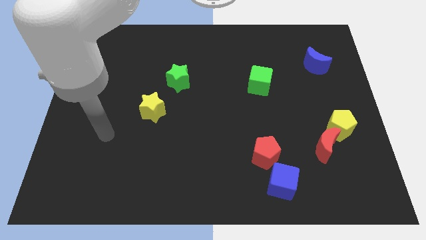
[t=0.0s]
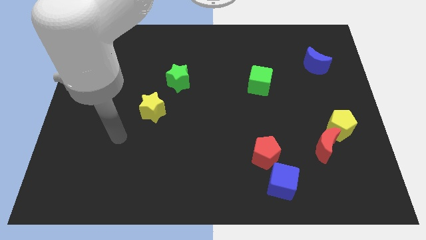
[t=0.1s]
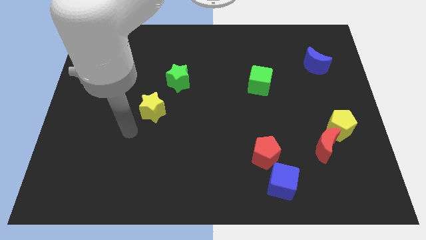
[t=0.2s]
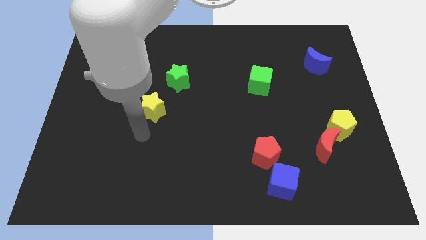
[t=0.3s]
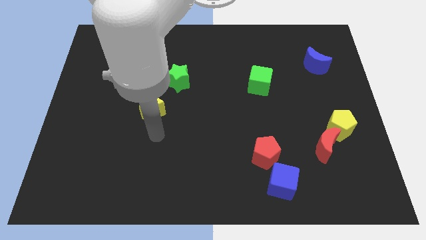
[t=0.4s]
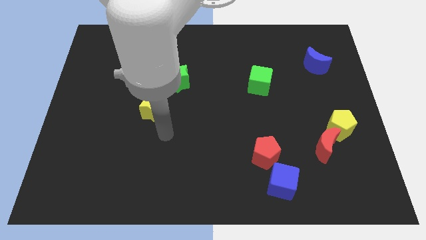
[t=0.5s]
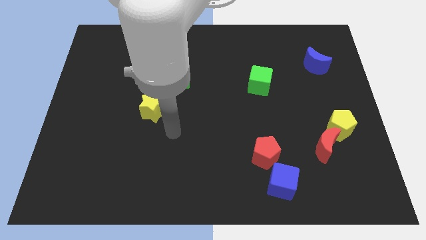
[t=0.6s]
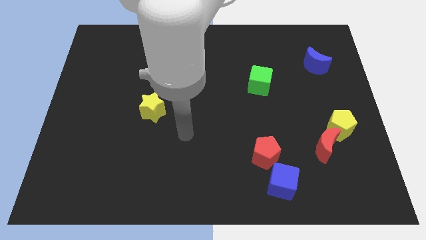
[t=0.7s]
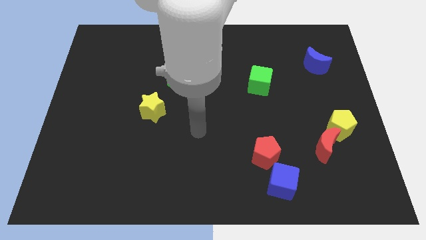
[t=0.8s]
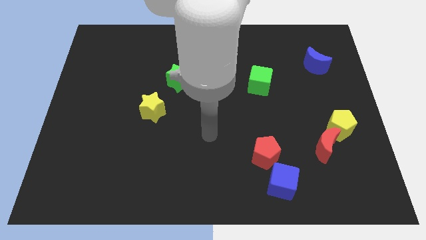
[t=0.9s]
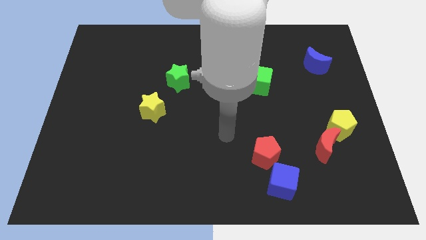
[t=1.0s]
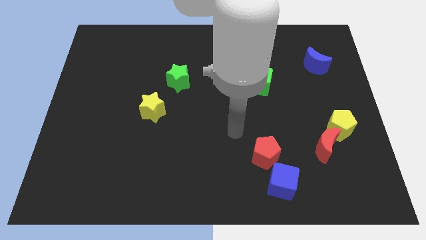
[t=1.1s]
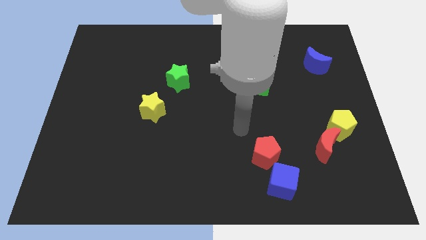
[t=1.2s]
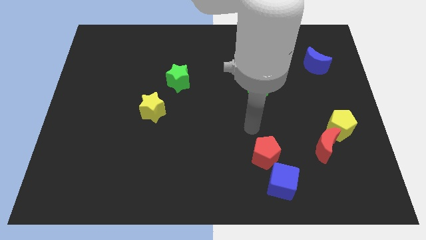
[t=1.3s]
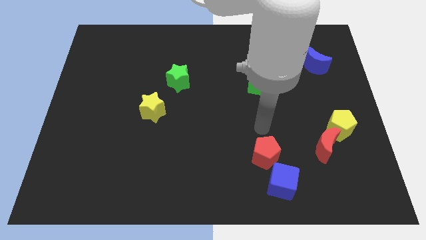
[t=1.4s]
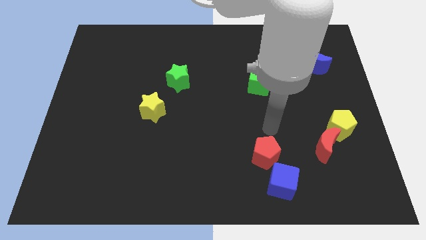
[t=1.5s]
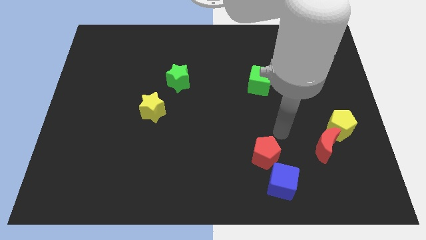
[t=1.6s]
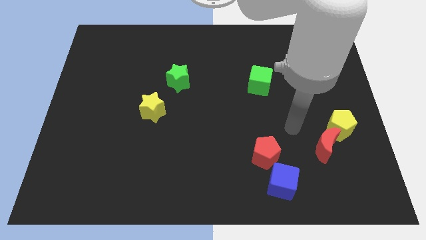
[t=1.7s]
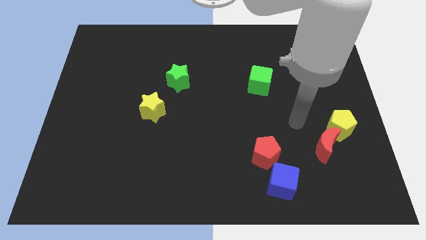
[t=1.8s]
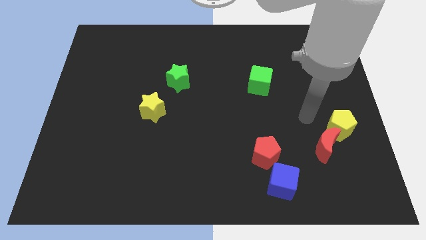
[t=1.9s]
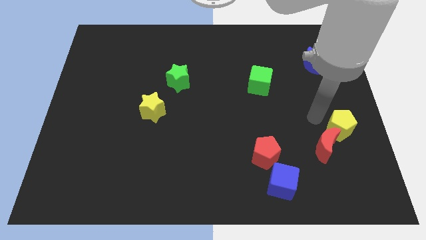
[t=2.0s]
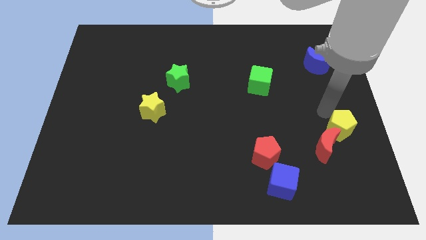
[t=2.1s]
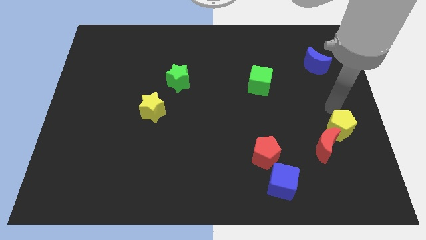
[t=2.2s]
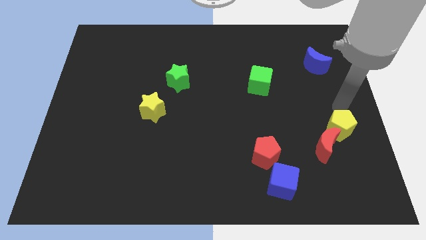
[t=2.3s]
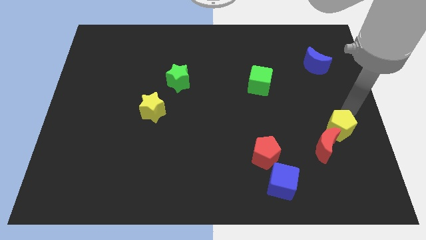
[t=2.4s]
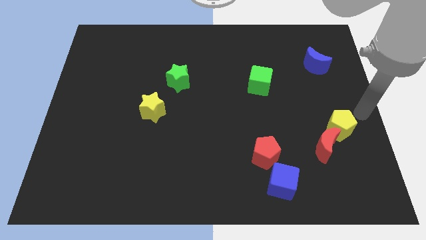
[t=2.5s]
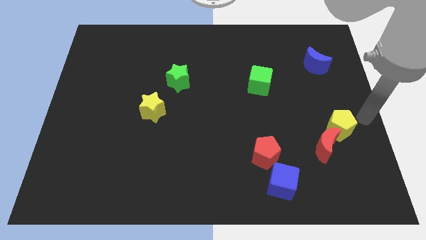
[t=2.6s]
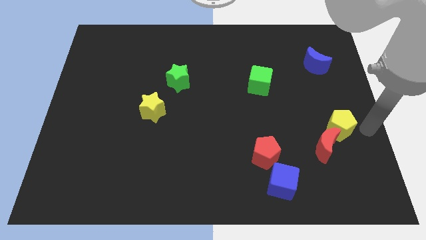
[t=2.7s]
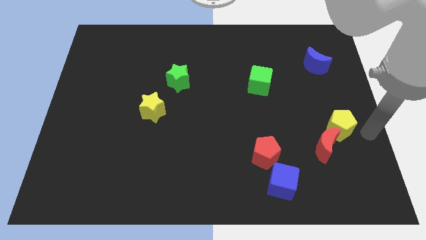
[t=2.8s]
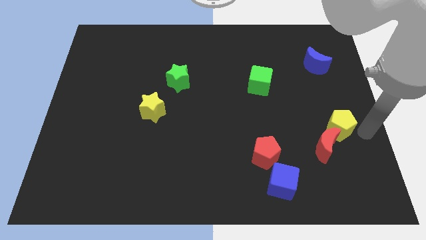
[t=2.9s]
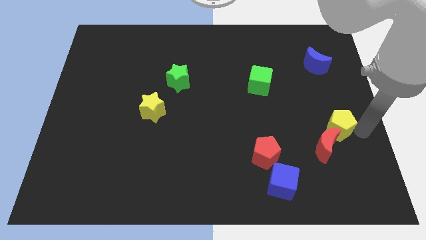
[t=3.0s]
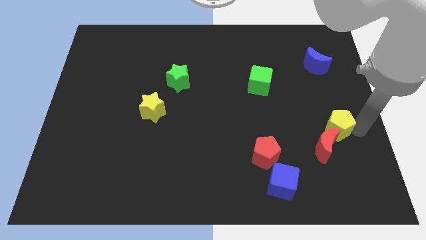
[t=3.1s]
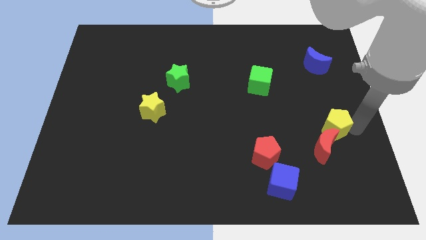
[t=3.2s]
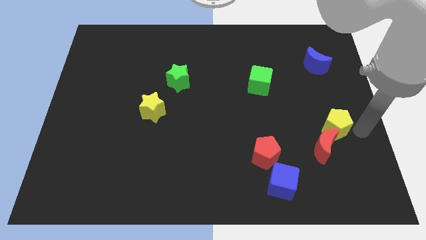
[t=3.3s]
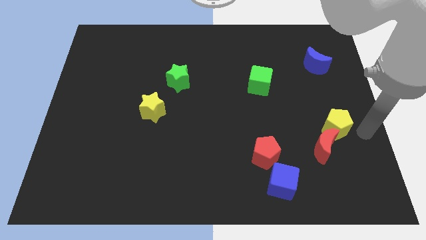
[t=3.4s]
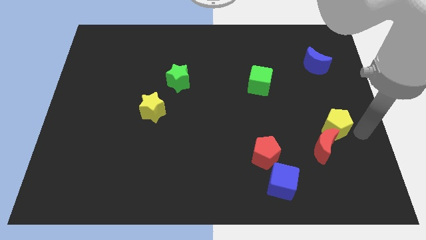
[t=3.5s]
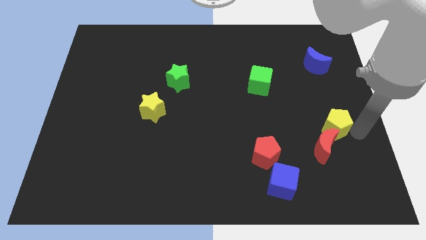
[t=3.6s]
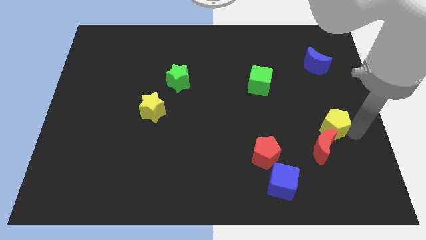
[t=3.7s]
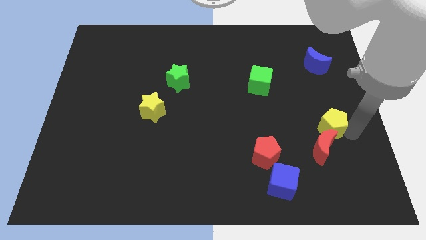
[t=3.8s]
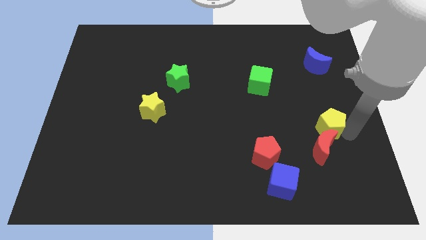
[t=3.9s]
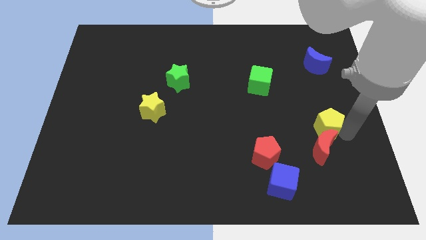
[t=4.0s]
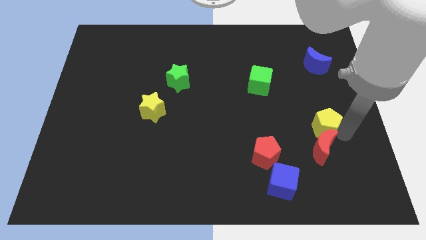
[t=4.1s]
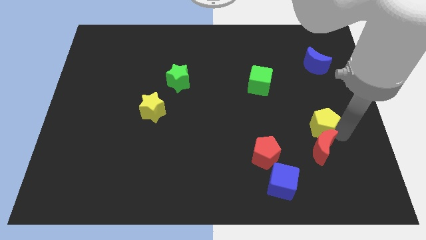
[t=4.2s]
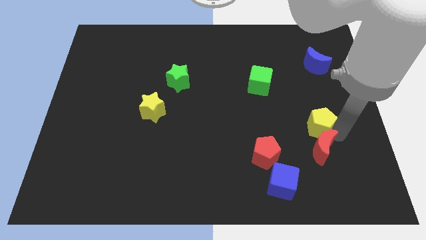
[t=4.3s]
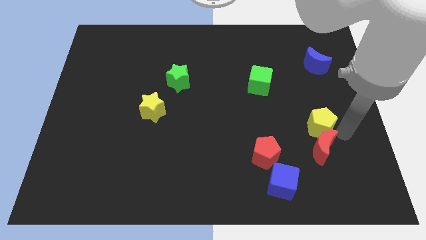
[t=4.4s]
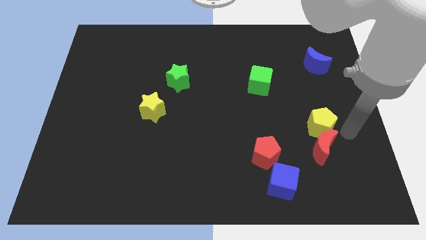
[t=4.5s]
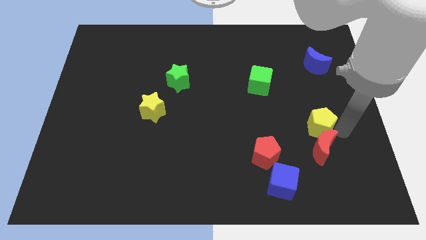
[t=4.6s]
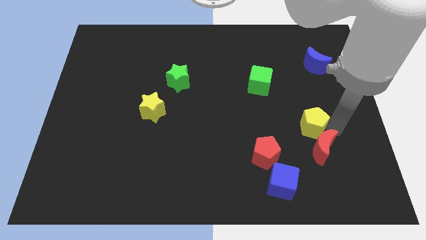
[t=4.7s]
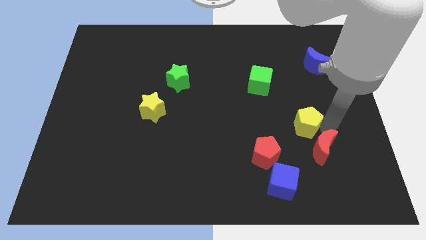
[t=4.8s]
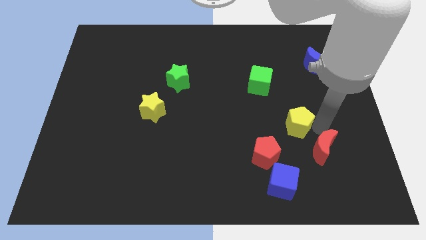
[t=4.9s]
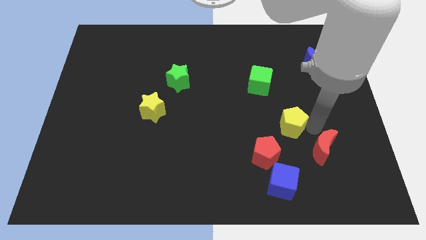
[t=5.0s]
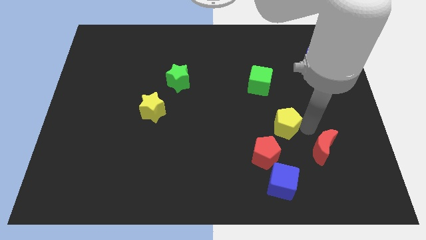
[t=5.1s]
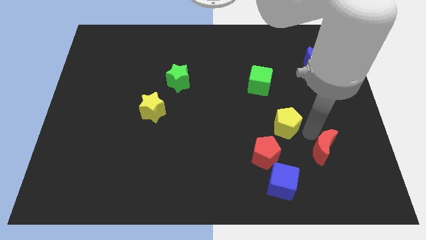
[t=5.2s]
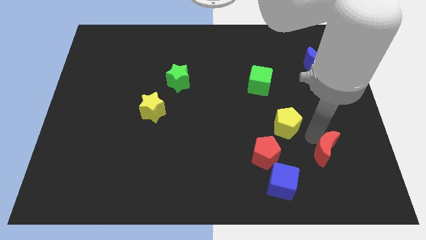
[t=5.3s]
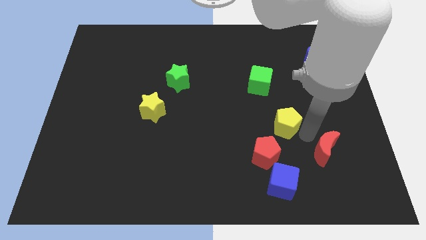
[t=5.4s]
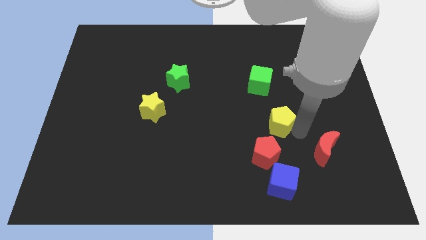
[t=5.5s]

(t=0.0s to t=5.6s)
move the yellow pentagon to the top side of the red pentagon

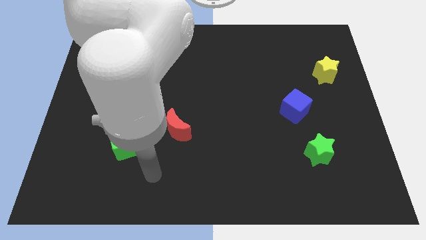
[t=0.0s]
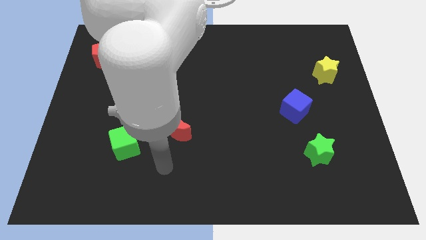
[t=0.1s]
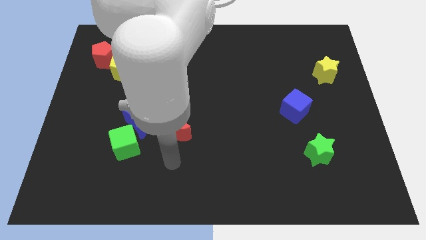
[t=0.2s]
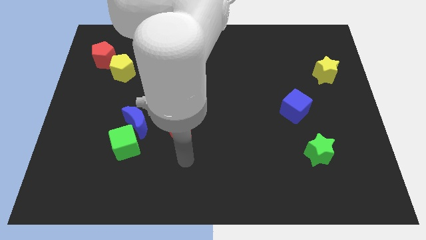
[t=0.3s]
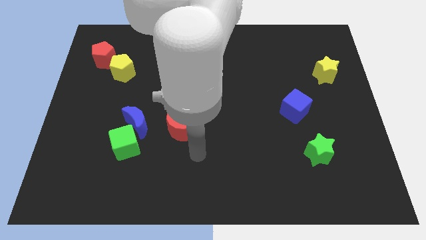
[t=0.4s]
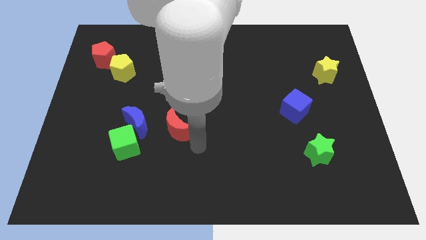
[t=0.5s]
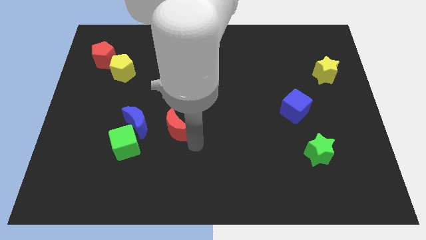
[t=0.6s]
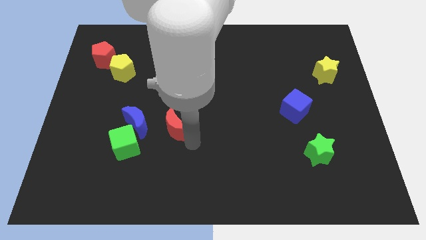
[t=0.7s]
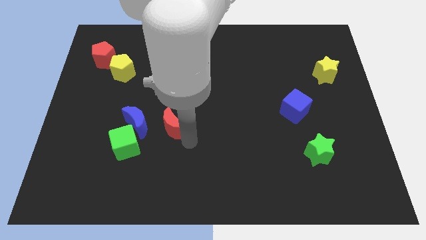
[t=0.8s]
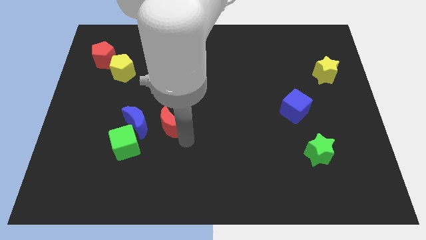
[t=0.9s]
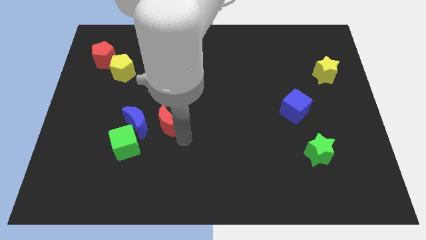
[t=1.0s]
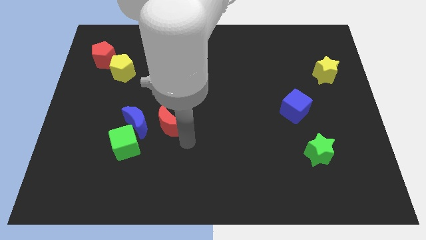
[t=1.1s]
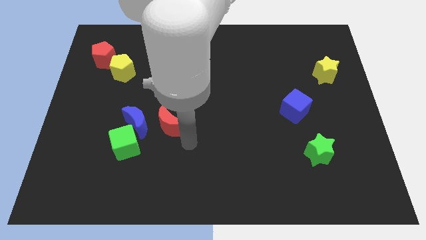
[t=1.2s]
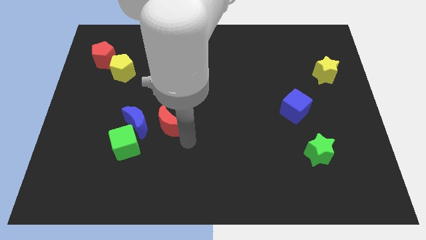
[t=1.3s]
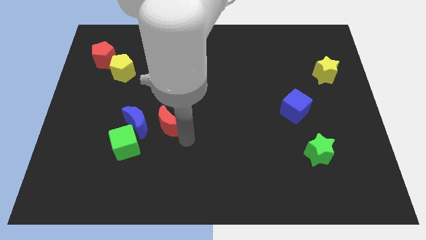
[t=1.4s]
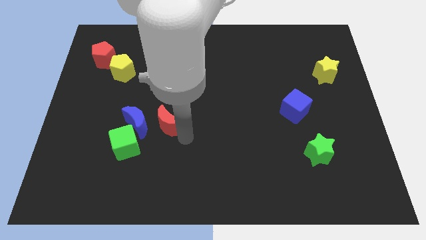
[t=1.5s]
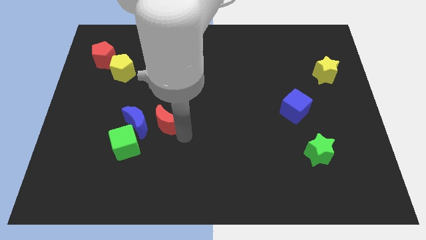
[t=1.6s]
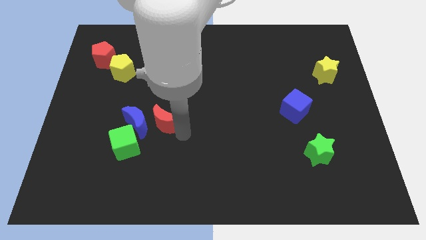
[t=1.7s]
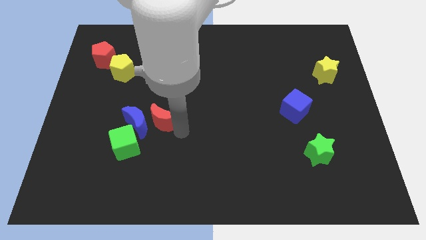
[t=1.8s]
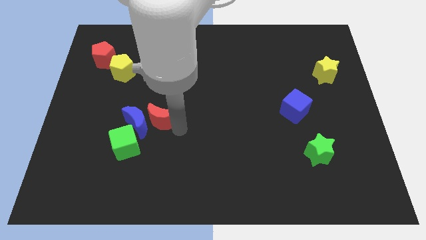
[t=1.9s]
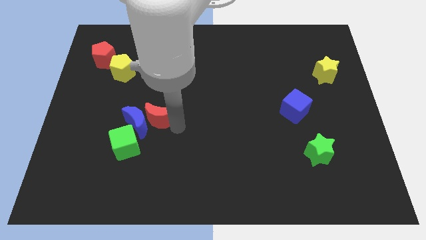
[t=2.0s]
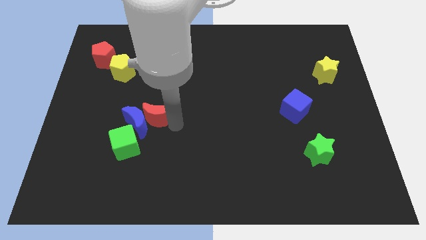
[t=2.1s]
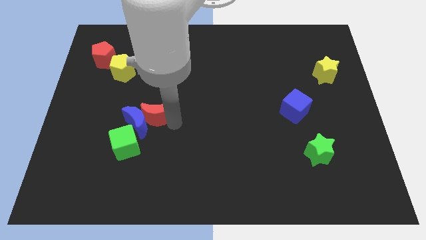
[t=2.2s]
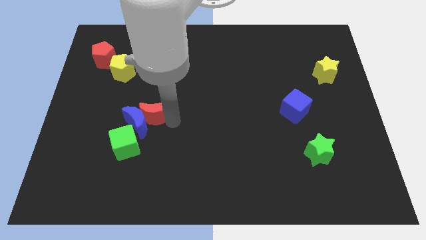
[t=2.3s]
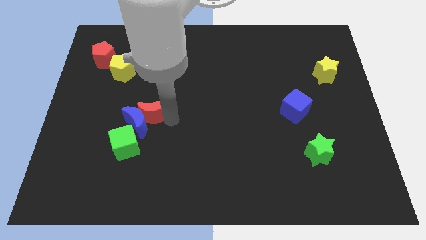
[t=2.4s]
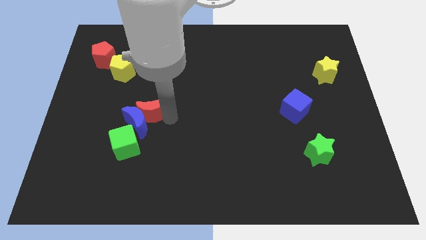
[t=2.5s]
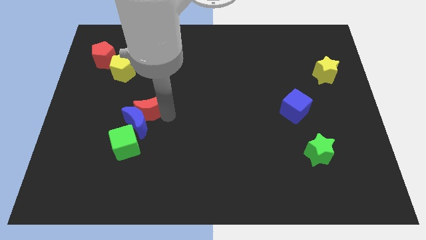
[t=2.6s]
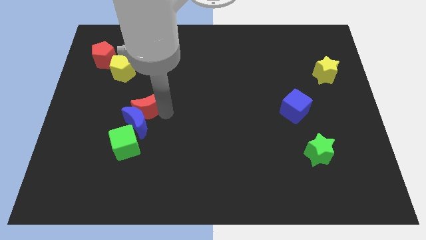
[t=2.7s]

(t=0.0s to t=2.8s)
move the red moon diagonally up and to the left of the blue moon
